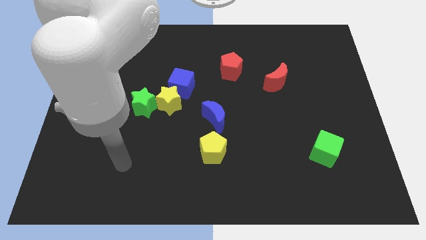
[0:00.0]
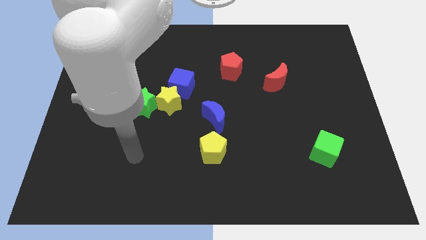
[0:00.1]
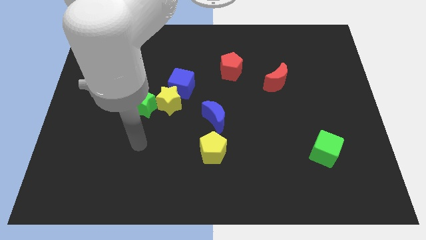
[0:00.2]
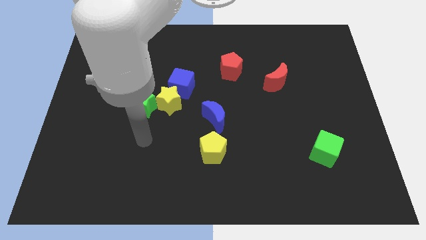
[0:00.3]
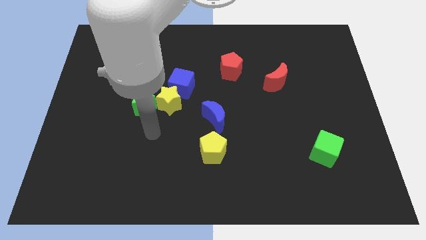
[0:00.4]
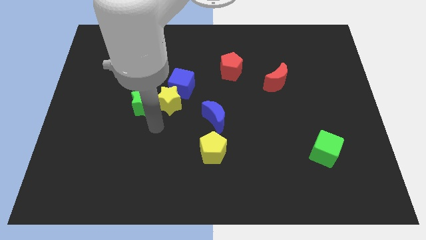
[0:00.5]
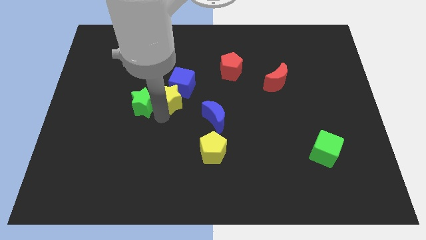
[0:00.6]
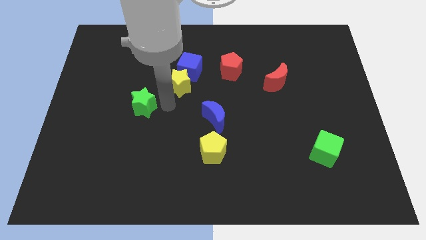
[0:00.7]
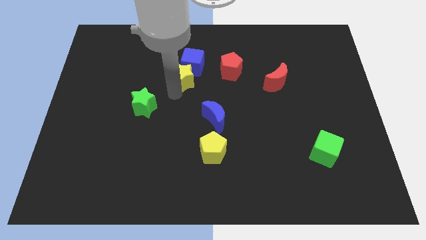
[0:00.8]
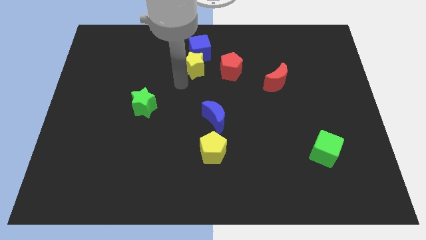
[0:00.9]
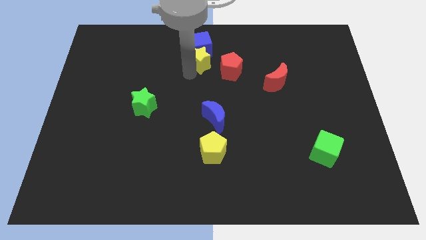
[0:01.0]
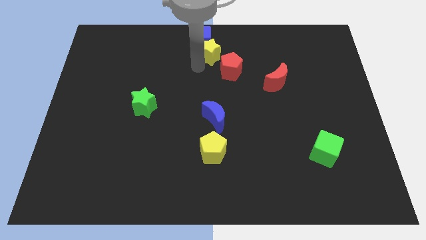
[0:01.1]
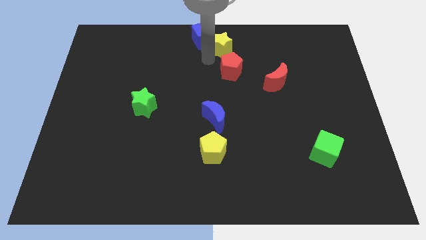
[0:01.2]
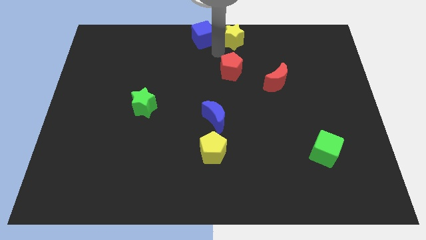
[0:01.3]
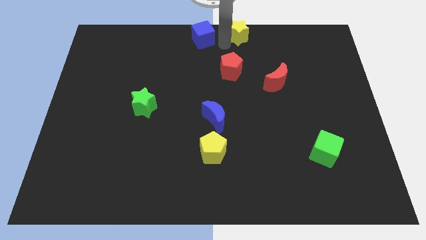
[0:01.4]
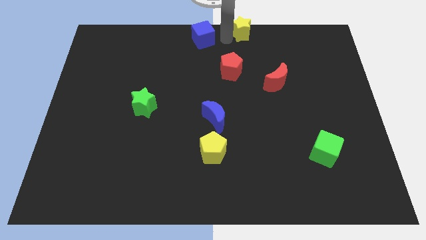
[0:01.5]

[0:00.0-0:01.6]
separate the blue cube from the yellow star

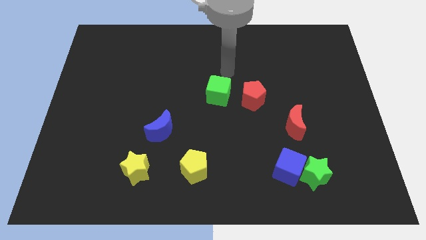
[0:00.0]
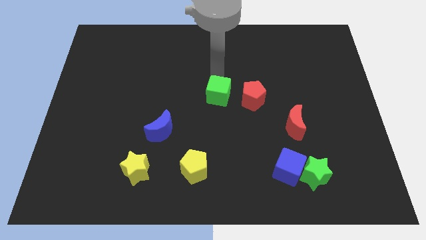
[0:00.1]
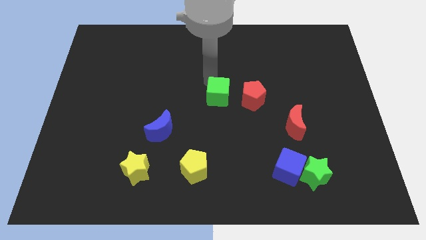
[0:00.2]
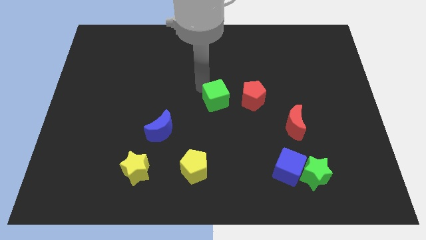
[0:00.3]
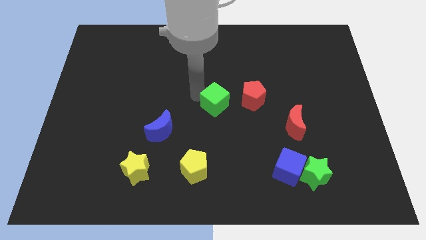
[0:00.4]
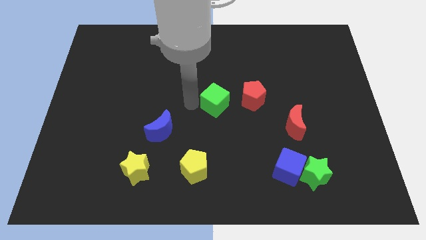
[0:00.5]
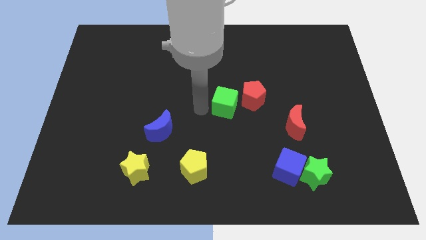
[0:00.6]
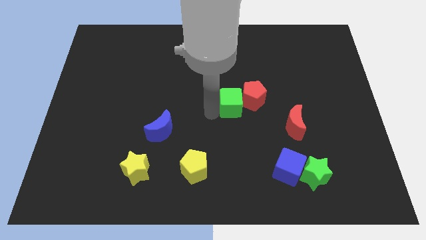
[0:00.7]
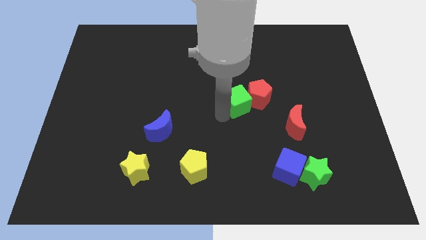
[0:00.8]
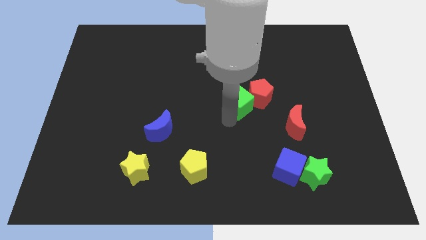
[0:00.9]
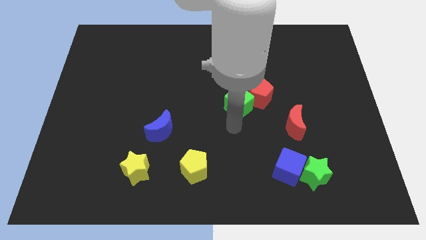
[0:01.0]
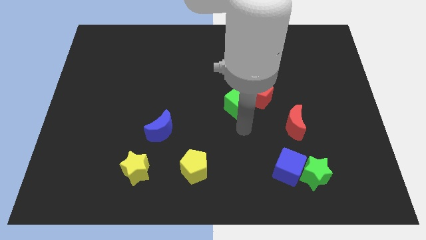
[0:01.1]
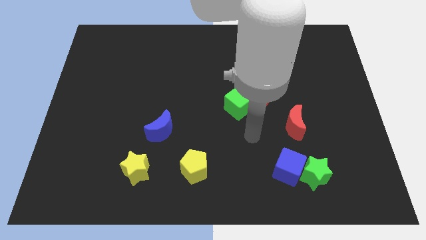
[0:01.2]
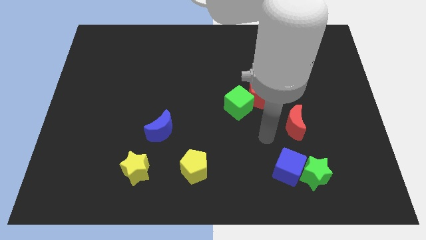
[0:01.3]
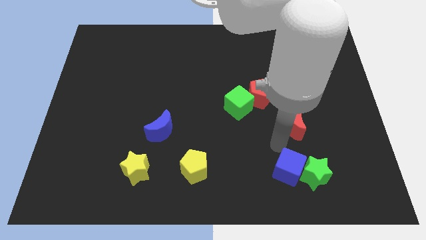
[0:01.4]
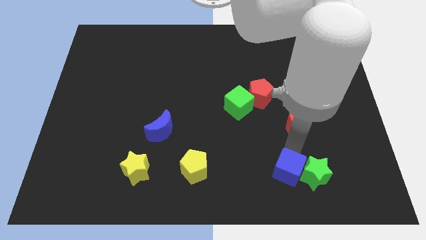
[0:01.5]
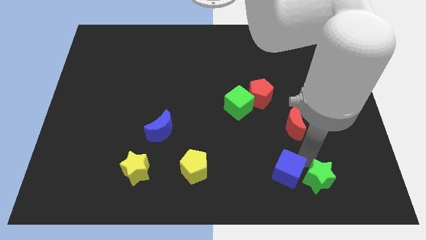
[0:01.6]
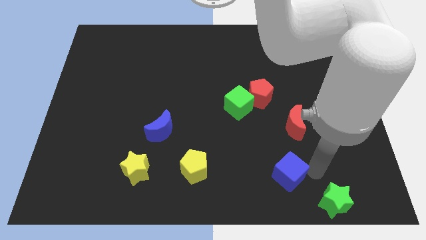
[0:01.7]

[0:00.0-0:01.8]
move the blue cube away from the green star

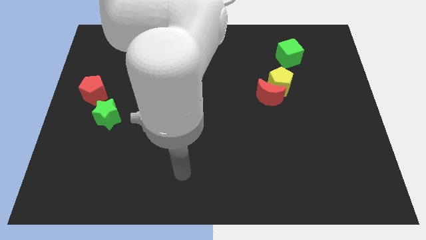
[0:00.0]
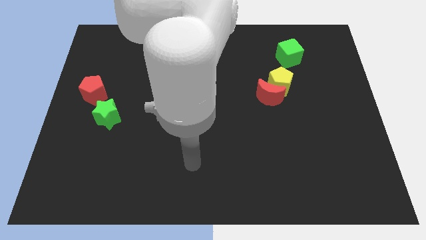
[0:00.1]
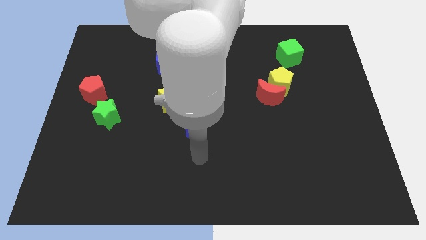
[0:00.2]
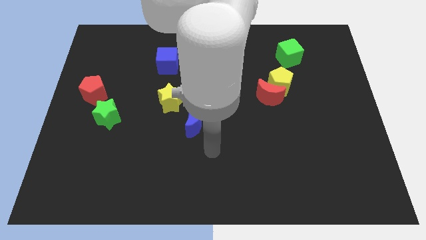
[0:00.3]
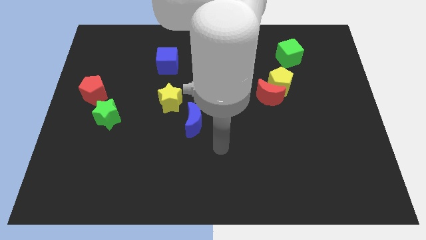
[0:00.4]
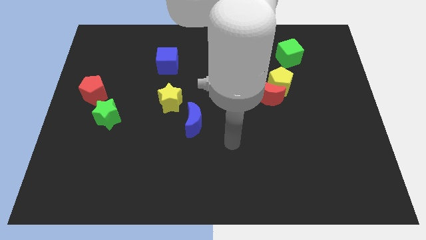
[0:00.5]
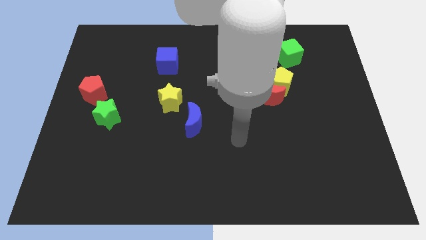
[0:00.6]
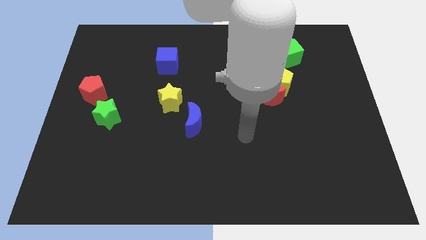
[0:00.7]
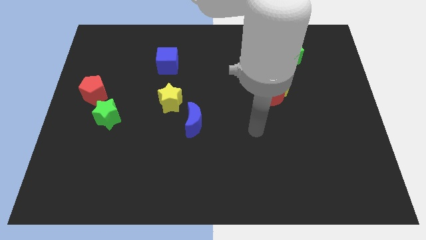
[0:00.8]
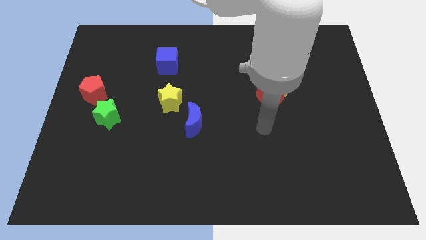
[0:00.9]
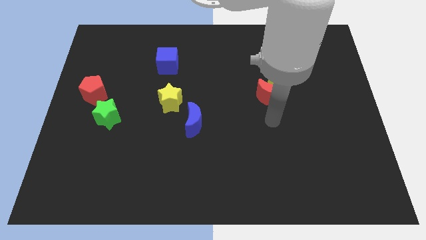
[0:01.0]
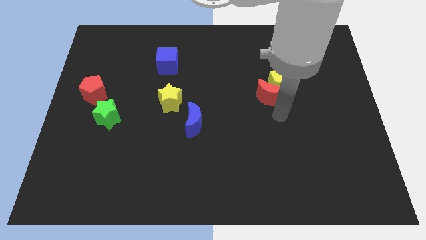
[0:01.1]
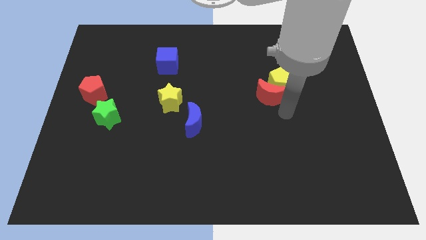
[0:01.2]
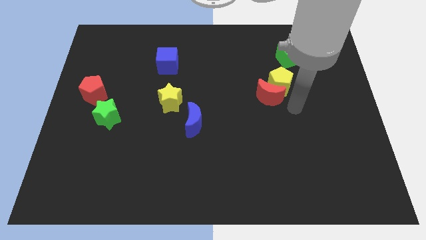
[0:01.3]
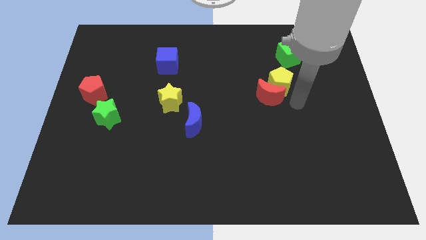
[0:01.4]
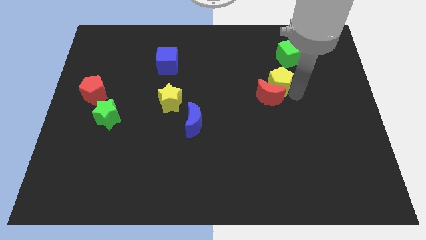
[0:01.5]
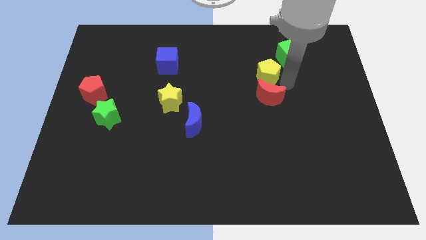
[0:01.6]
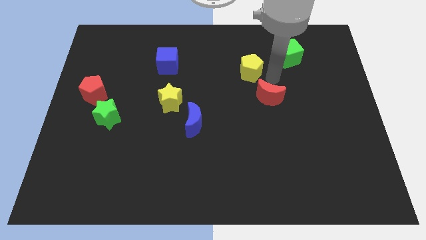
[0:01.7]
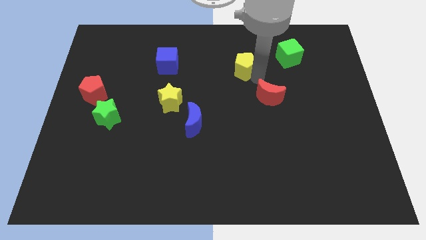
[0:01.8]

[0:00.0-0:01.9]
pull the red moon apart from the yellow pentagon

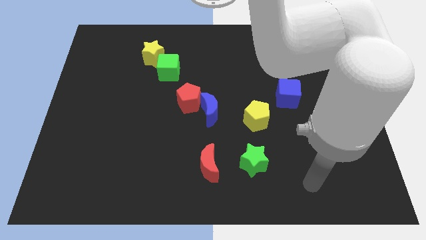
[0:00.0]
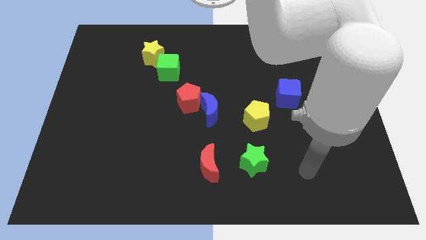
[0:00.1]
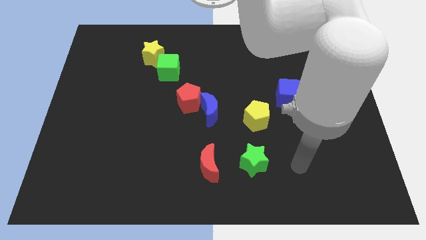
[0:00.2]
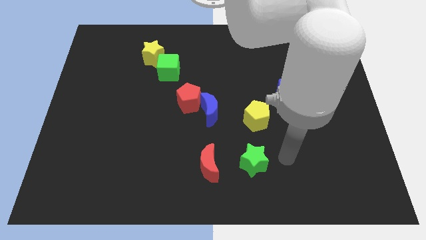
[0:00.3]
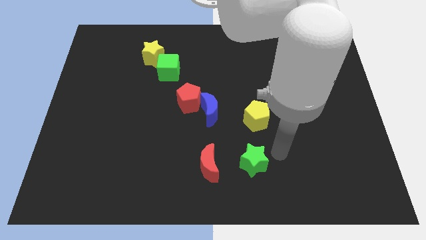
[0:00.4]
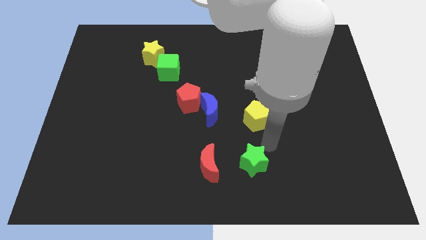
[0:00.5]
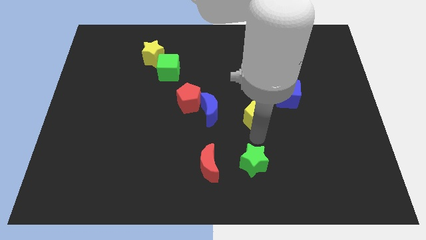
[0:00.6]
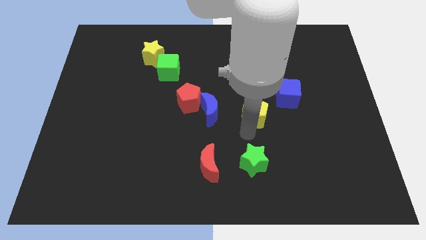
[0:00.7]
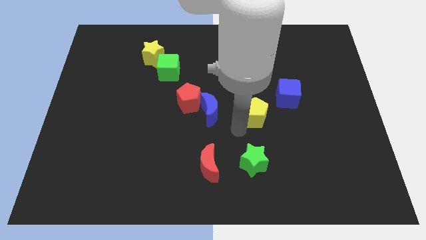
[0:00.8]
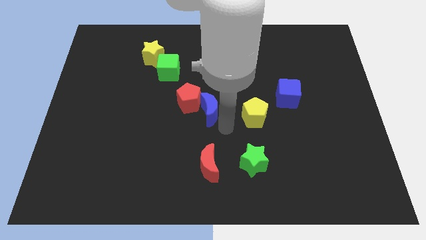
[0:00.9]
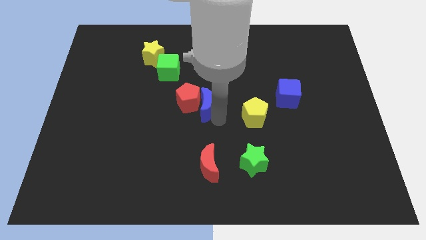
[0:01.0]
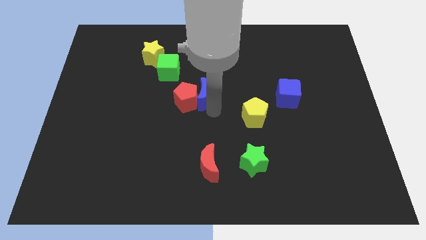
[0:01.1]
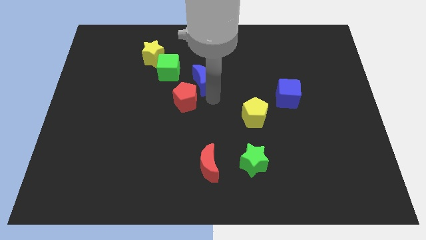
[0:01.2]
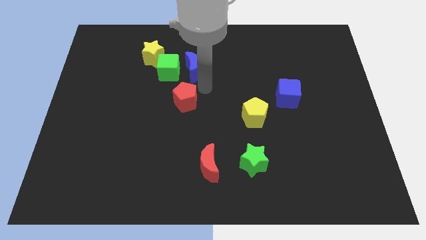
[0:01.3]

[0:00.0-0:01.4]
separate the red pentagon from the blue moon

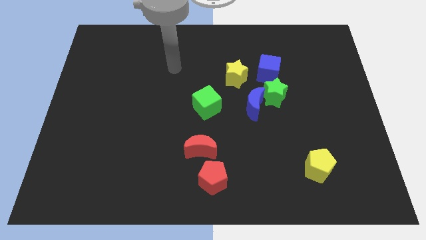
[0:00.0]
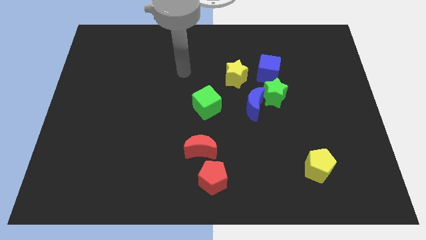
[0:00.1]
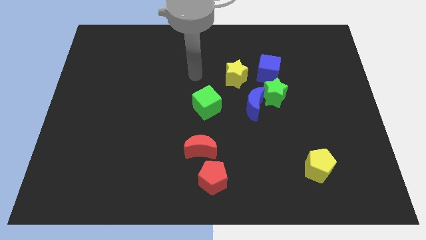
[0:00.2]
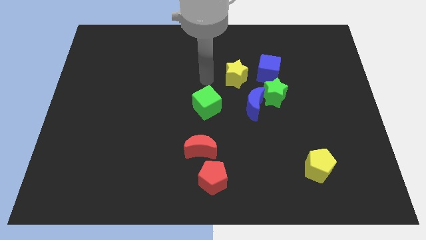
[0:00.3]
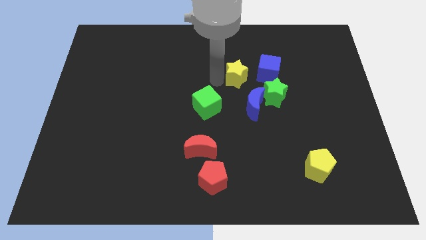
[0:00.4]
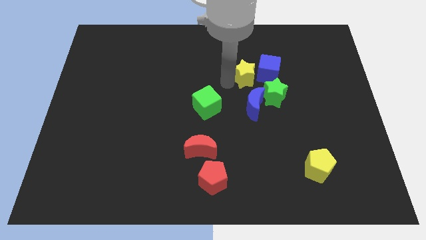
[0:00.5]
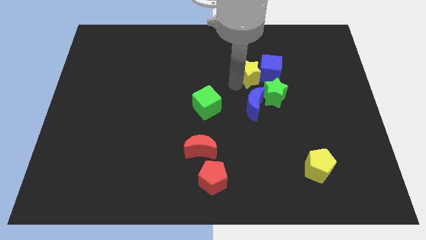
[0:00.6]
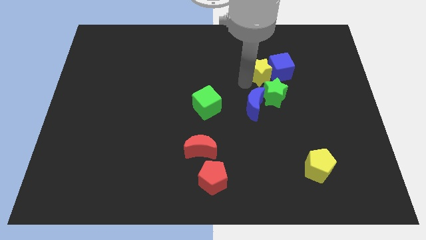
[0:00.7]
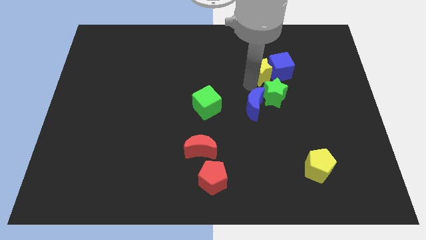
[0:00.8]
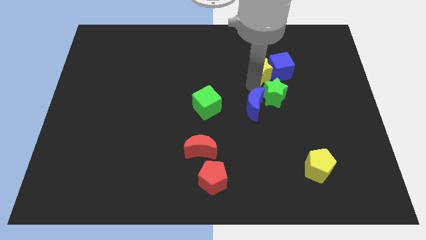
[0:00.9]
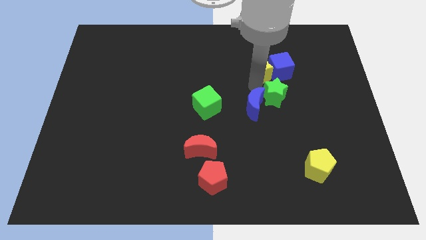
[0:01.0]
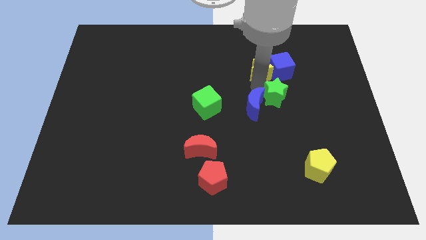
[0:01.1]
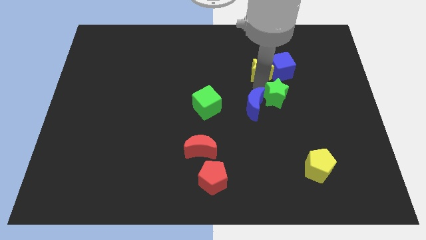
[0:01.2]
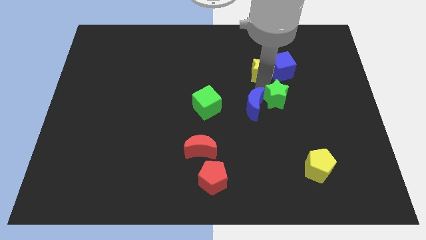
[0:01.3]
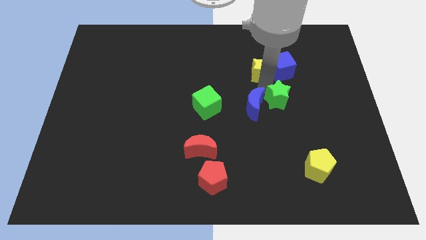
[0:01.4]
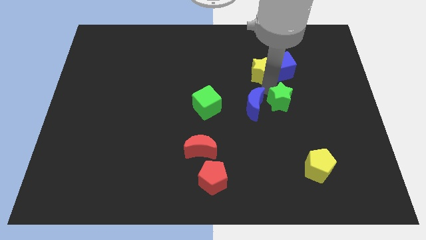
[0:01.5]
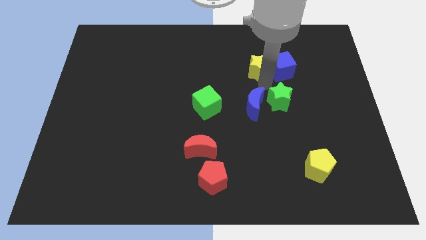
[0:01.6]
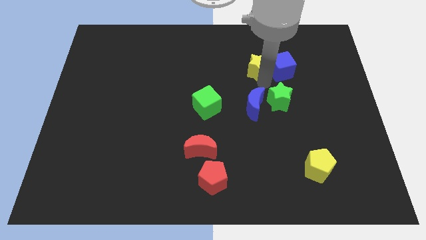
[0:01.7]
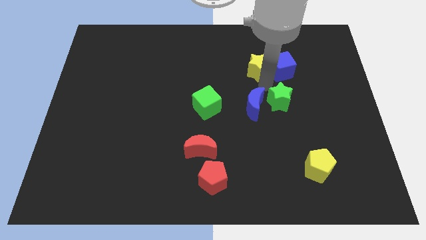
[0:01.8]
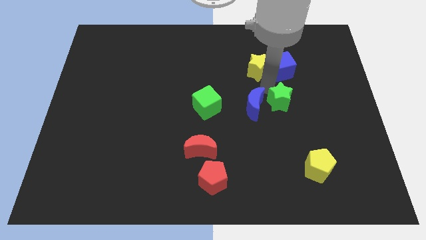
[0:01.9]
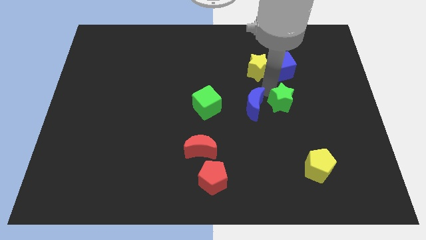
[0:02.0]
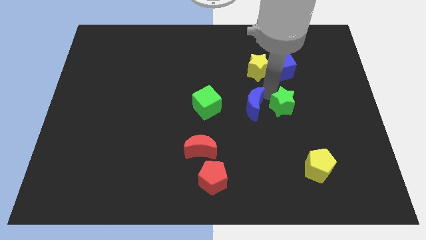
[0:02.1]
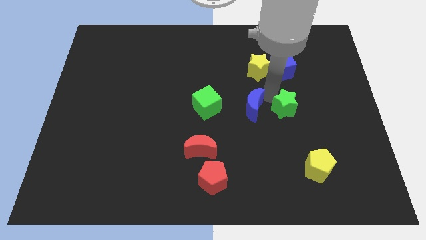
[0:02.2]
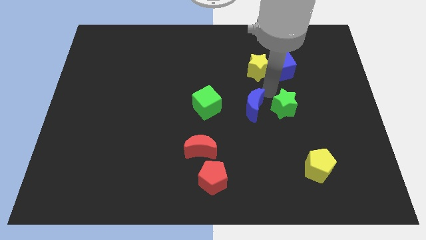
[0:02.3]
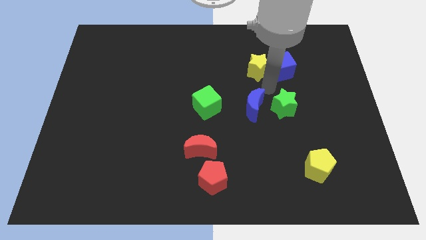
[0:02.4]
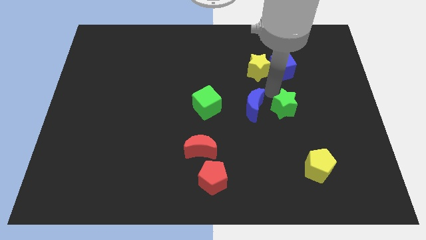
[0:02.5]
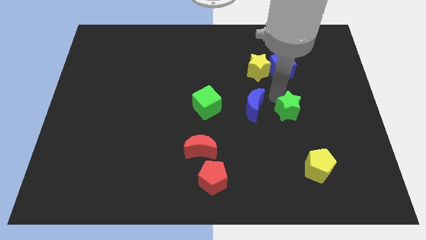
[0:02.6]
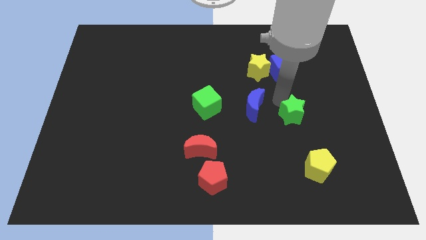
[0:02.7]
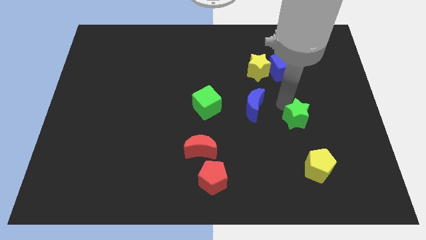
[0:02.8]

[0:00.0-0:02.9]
separate the green star from the blue moon and blue cube
